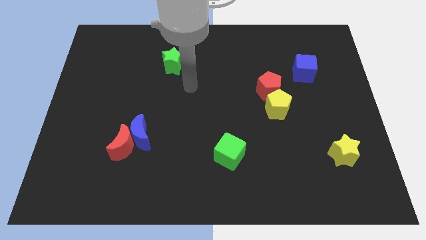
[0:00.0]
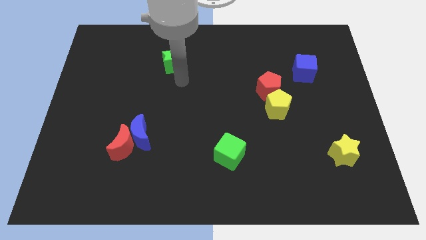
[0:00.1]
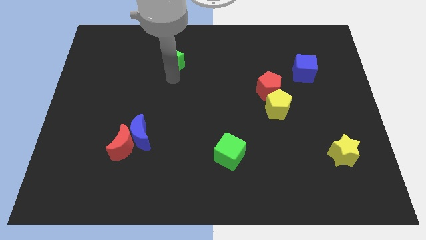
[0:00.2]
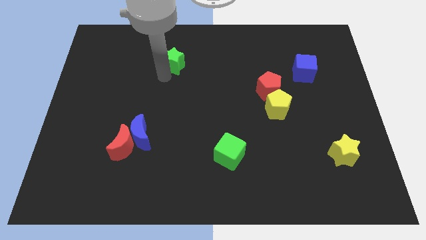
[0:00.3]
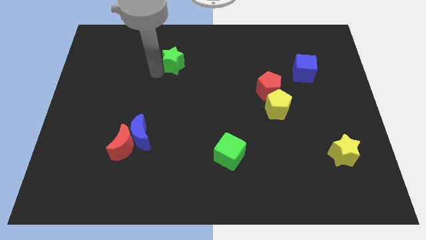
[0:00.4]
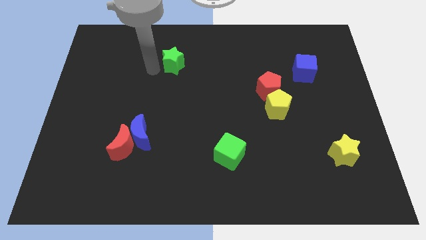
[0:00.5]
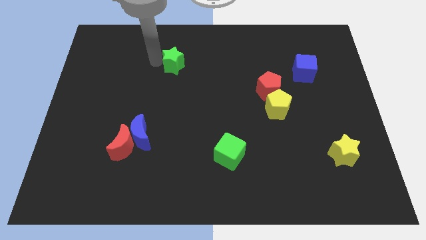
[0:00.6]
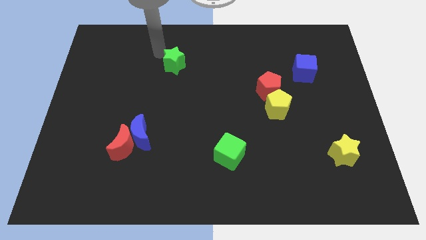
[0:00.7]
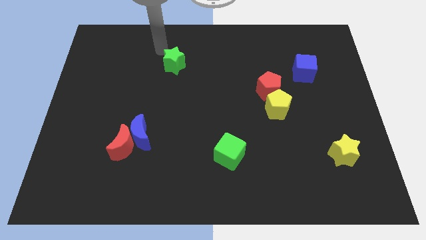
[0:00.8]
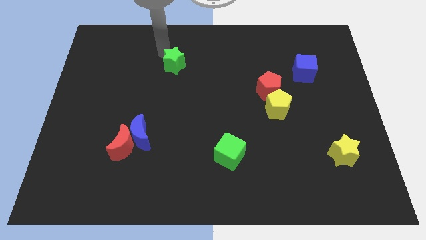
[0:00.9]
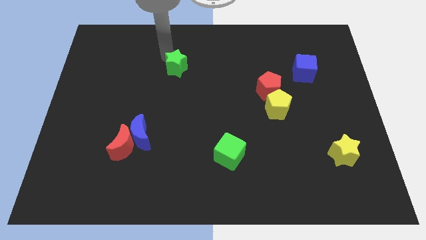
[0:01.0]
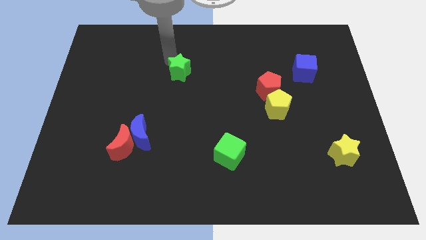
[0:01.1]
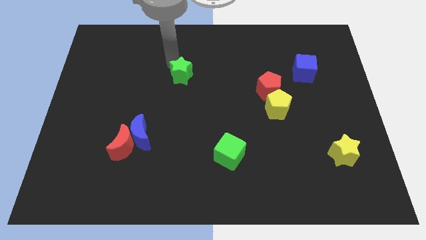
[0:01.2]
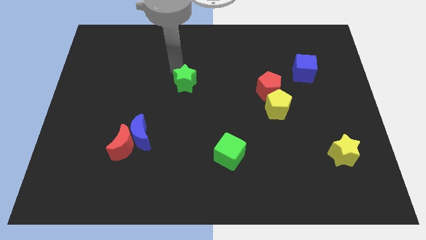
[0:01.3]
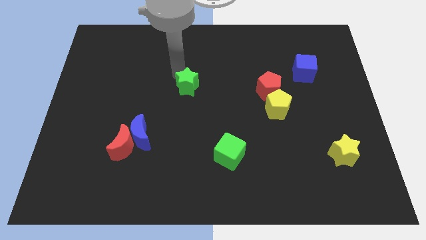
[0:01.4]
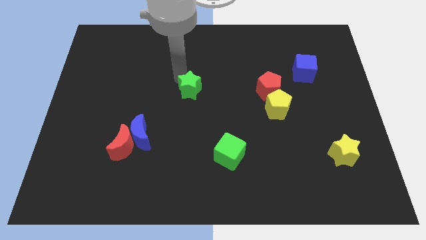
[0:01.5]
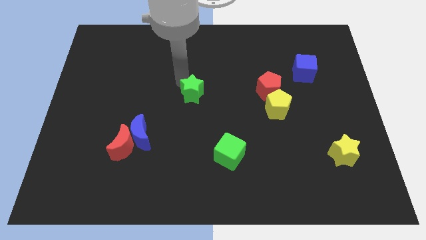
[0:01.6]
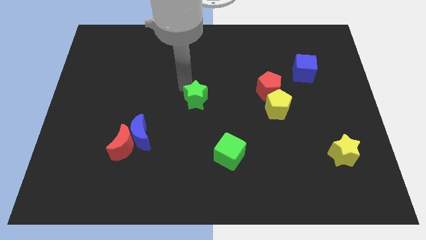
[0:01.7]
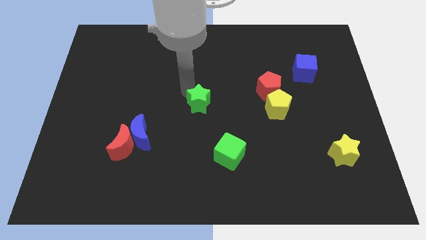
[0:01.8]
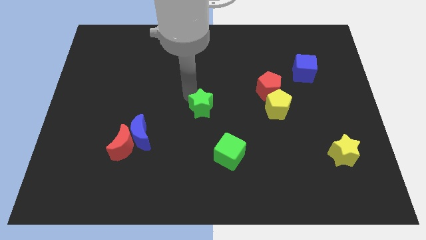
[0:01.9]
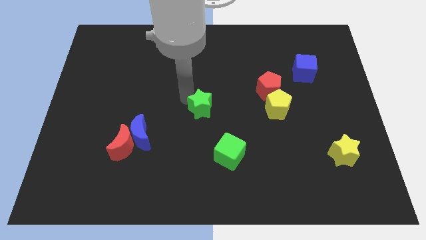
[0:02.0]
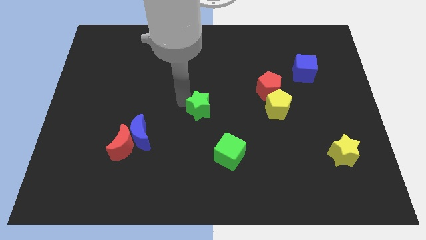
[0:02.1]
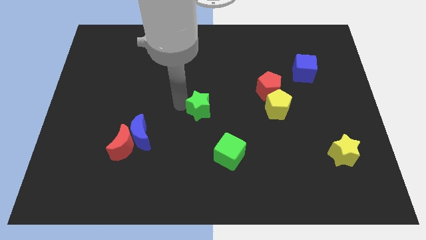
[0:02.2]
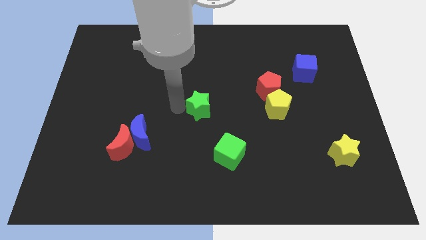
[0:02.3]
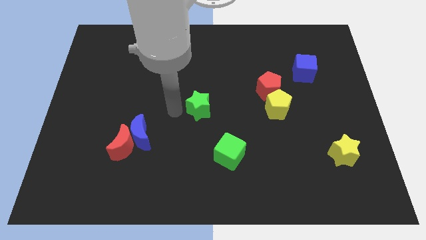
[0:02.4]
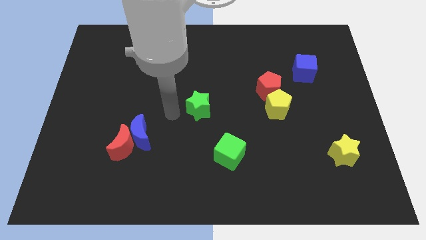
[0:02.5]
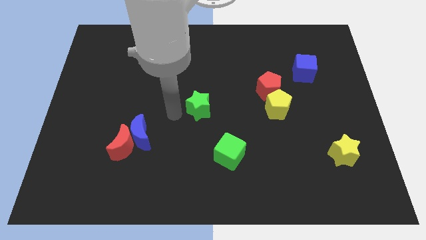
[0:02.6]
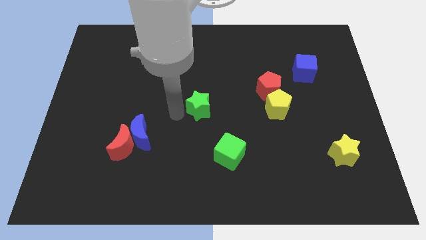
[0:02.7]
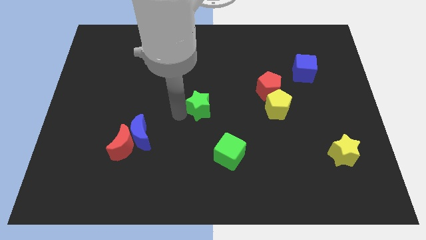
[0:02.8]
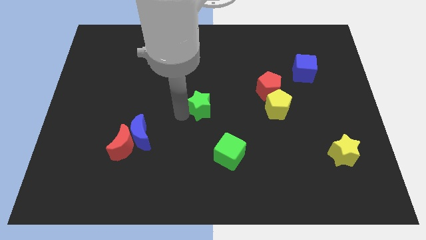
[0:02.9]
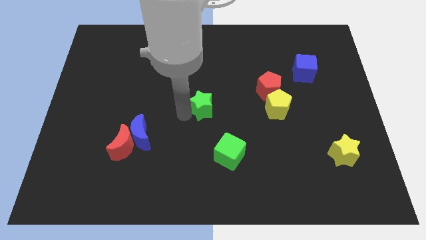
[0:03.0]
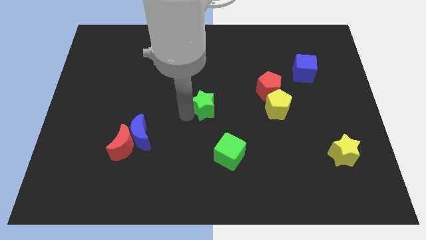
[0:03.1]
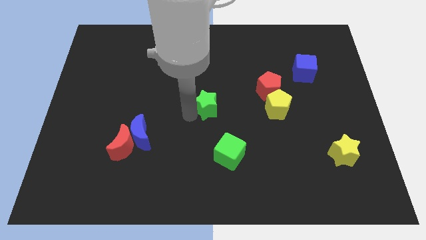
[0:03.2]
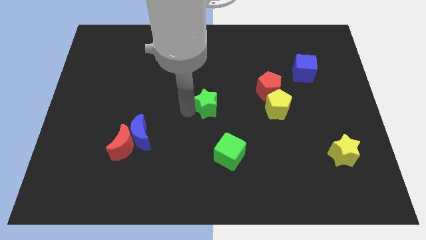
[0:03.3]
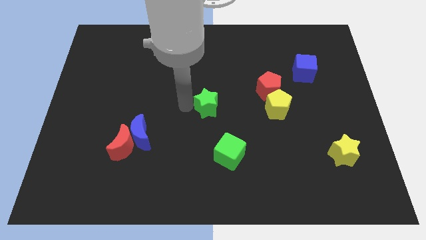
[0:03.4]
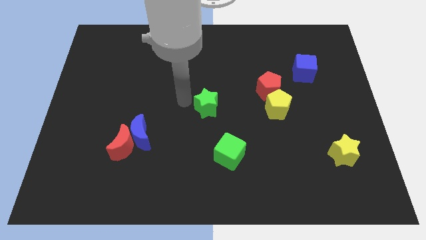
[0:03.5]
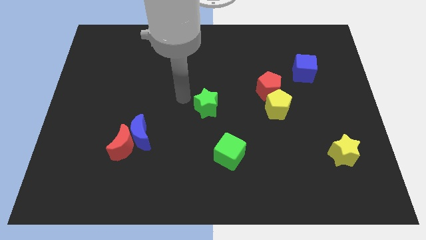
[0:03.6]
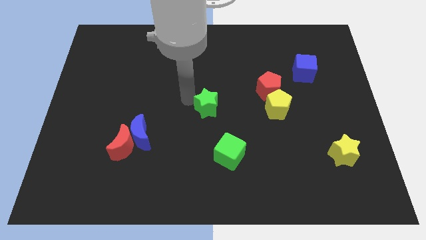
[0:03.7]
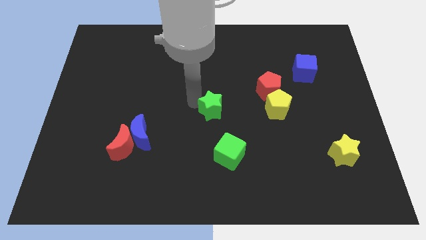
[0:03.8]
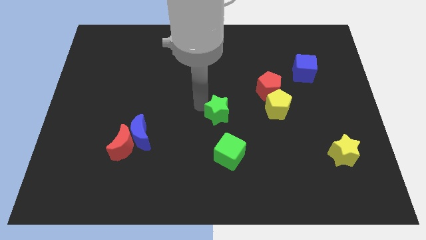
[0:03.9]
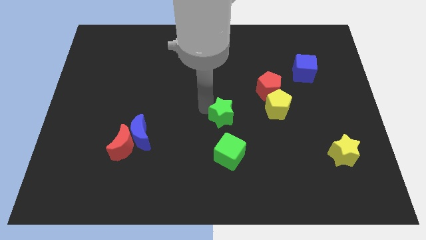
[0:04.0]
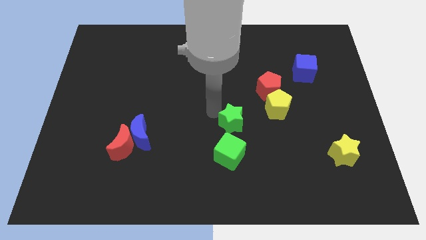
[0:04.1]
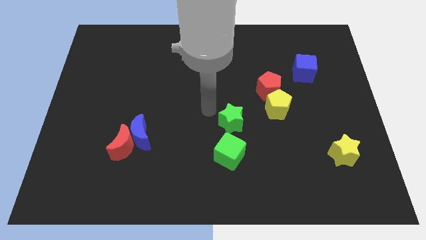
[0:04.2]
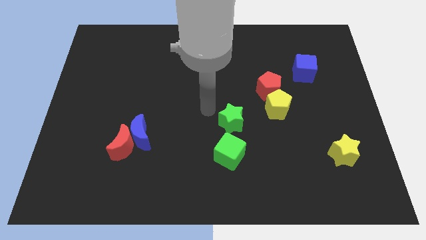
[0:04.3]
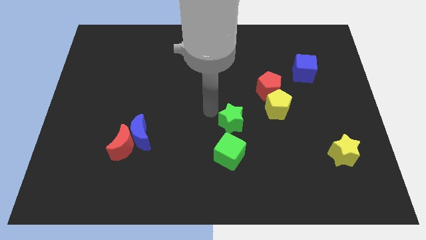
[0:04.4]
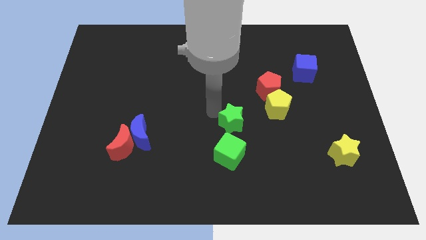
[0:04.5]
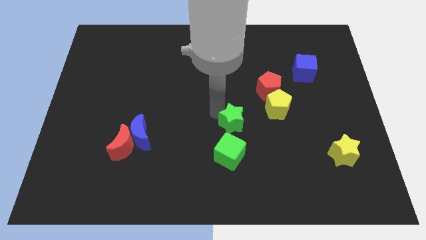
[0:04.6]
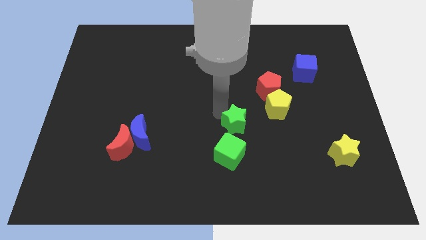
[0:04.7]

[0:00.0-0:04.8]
move the green star diagonally up and to the right of the green cube

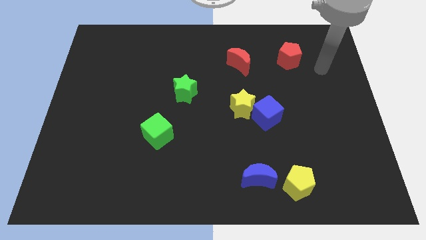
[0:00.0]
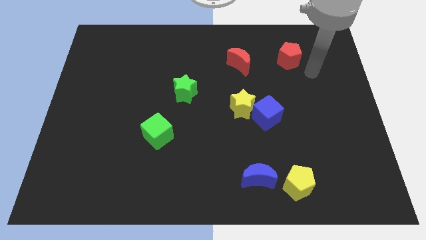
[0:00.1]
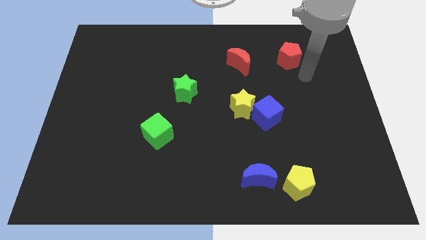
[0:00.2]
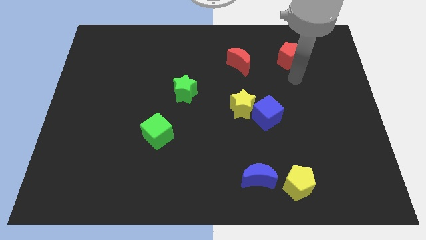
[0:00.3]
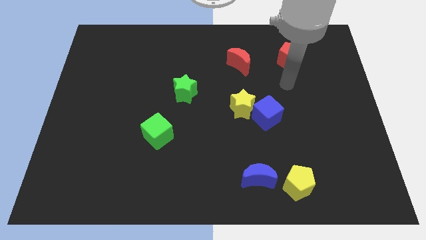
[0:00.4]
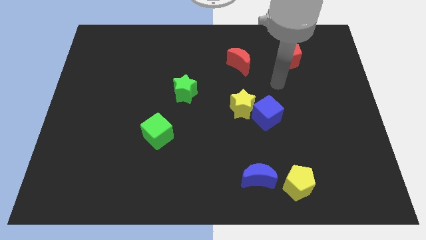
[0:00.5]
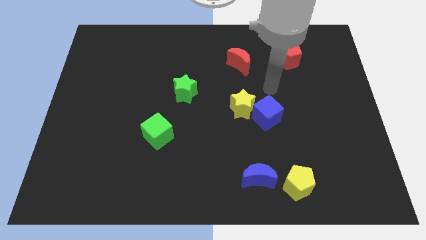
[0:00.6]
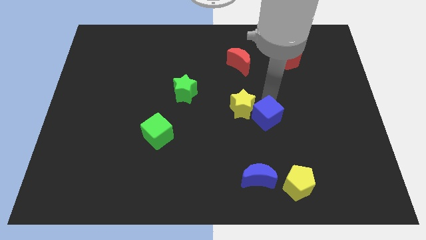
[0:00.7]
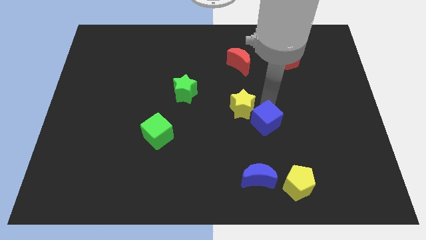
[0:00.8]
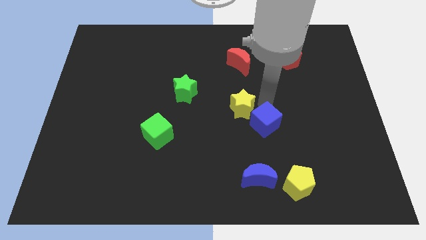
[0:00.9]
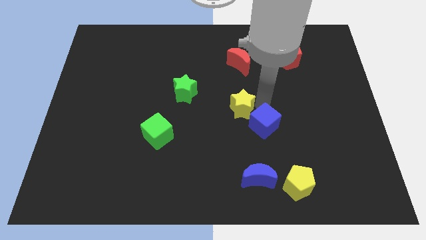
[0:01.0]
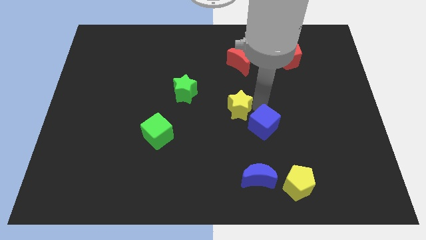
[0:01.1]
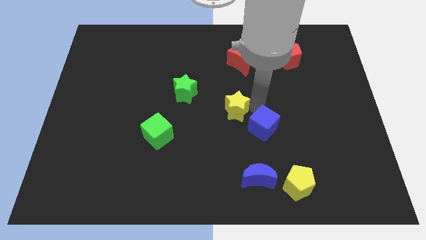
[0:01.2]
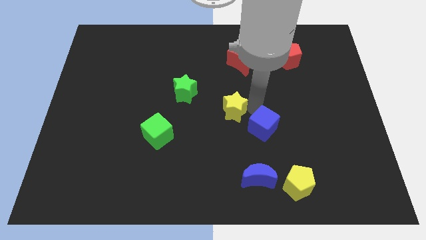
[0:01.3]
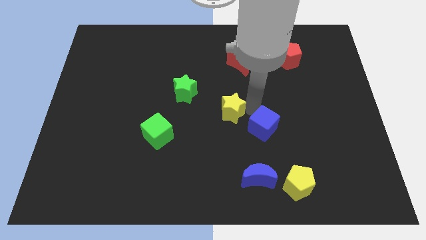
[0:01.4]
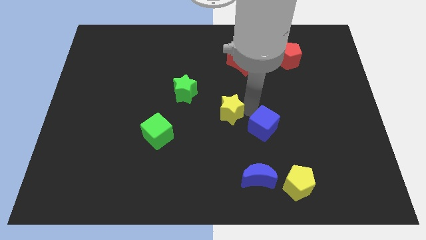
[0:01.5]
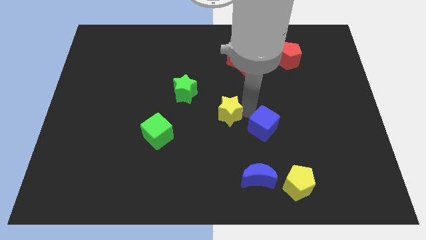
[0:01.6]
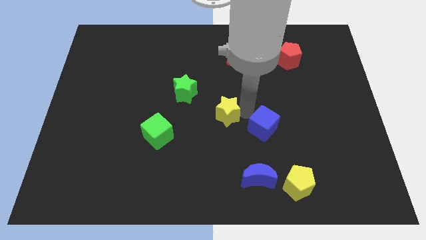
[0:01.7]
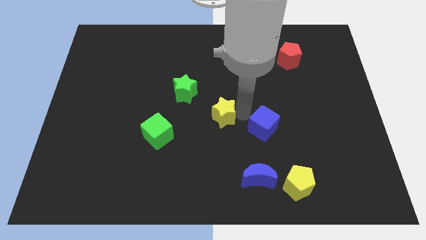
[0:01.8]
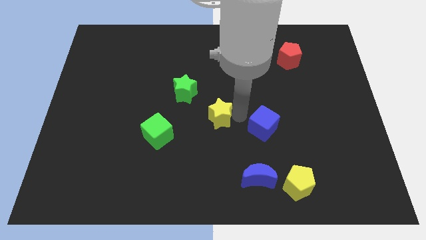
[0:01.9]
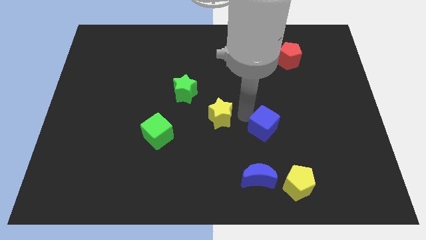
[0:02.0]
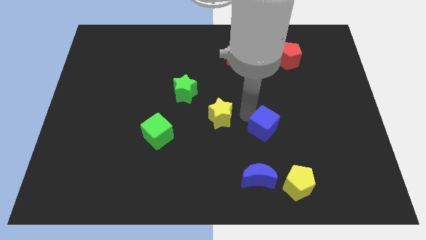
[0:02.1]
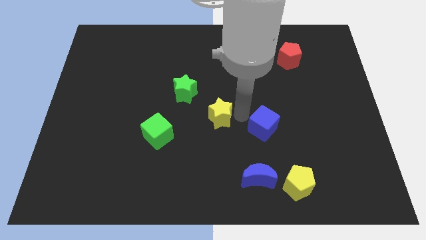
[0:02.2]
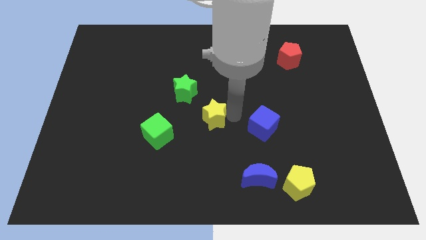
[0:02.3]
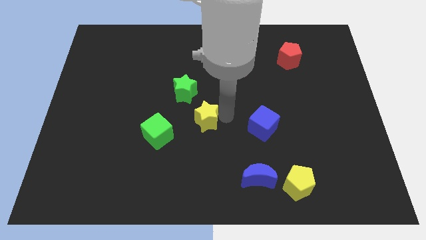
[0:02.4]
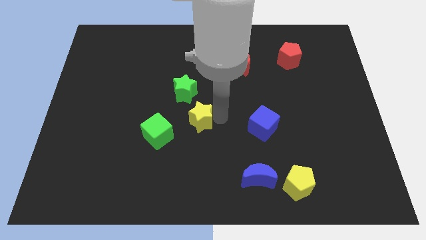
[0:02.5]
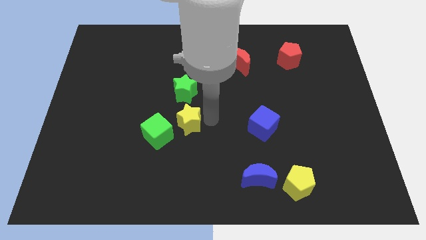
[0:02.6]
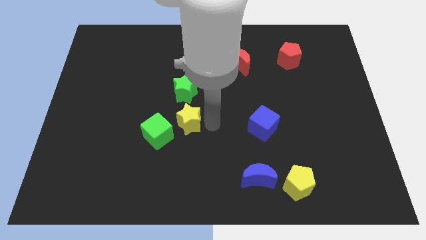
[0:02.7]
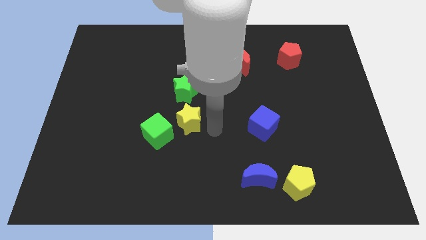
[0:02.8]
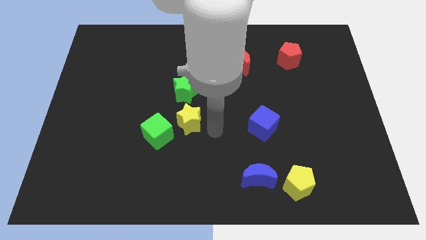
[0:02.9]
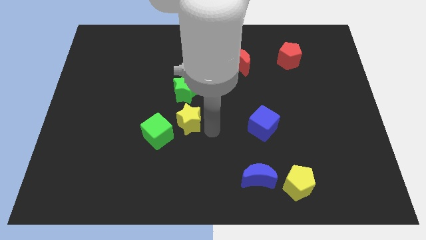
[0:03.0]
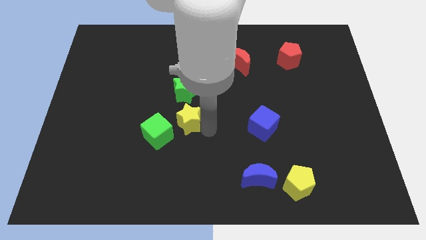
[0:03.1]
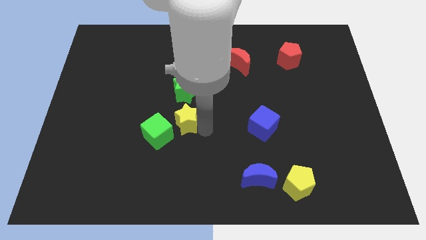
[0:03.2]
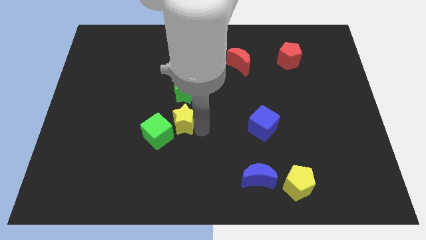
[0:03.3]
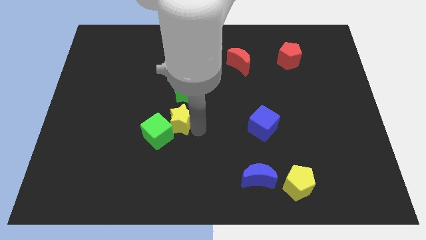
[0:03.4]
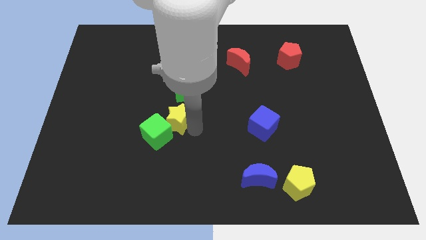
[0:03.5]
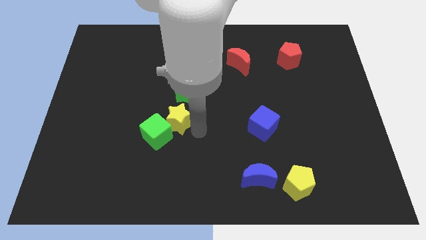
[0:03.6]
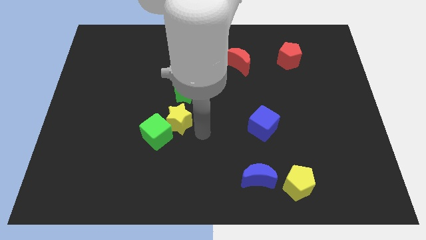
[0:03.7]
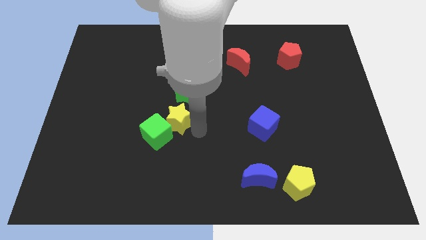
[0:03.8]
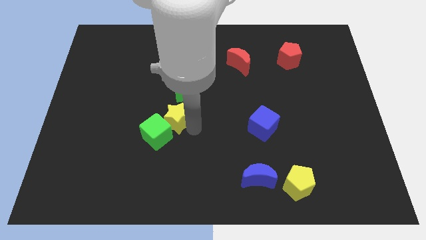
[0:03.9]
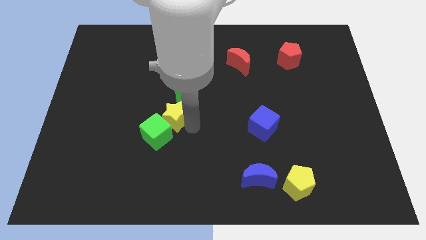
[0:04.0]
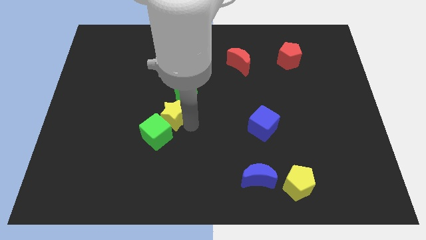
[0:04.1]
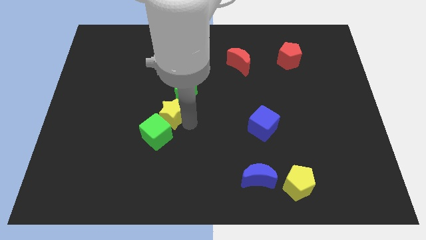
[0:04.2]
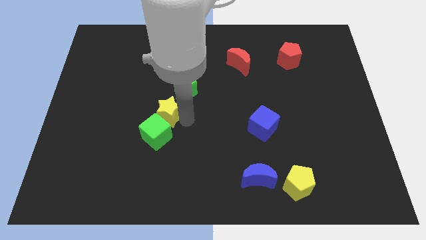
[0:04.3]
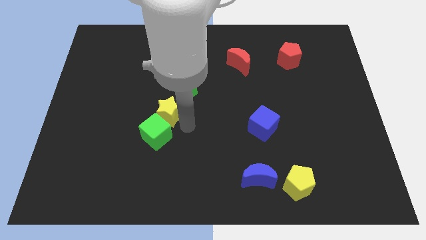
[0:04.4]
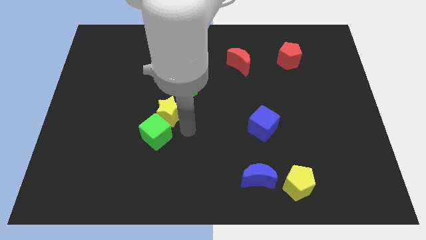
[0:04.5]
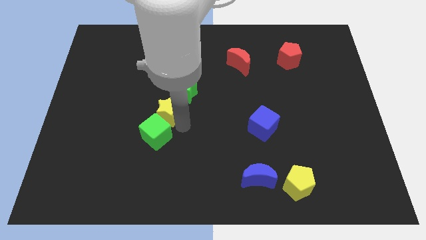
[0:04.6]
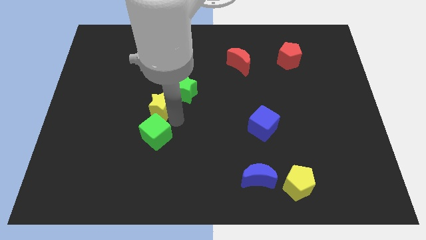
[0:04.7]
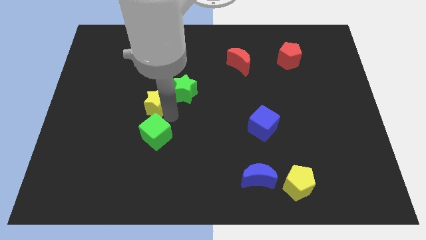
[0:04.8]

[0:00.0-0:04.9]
push the yellow star just left of the green star
